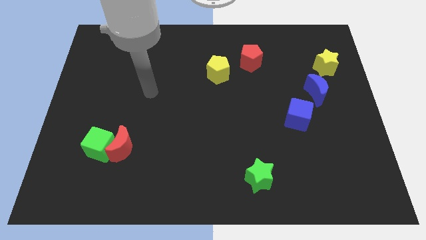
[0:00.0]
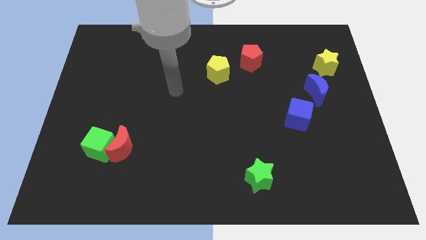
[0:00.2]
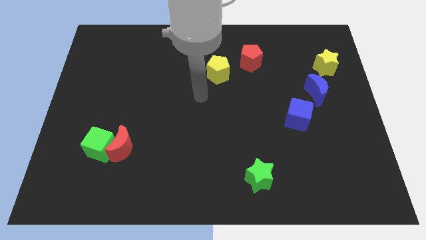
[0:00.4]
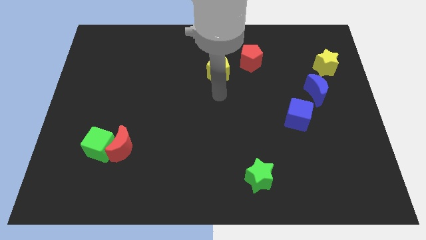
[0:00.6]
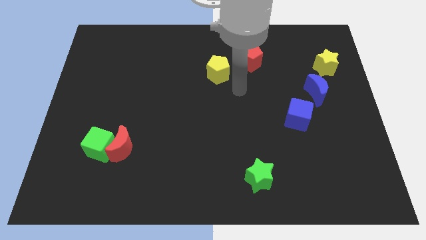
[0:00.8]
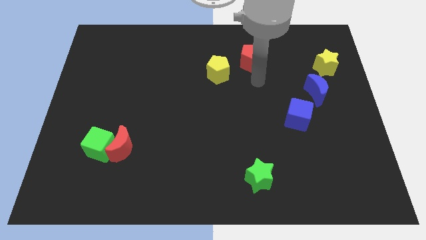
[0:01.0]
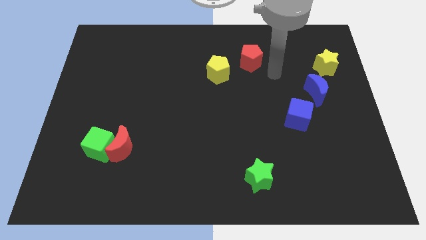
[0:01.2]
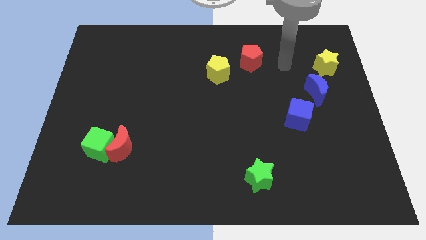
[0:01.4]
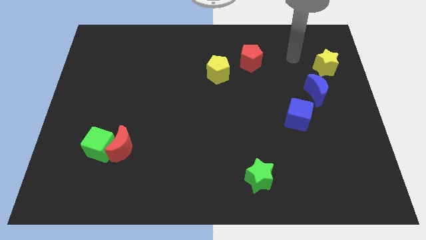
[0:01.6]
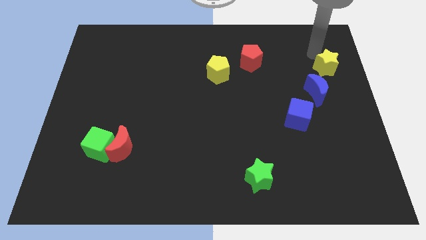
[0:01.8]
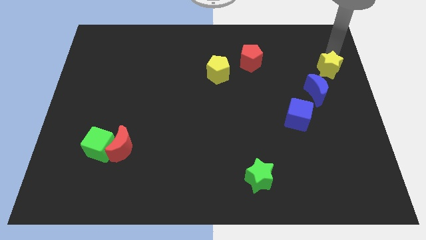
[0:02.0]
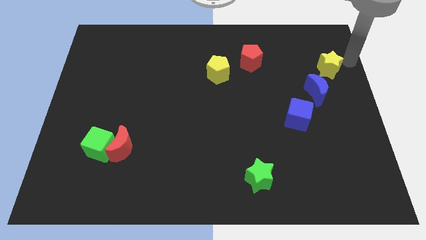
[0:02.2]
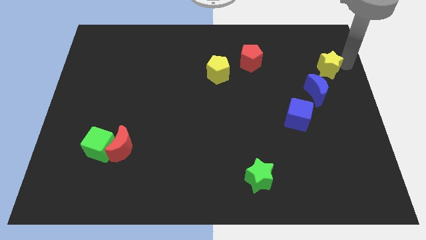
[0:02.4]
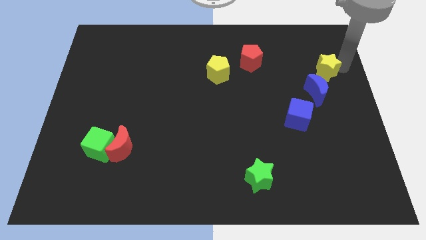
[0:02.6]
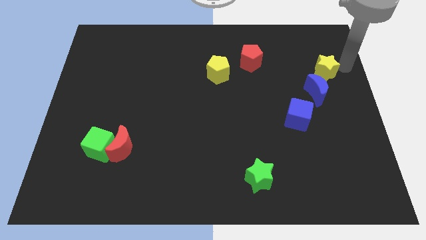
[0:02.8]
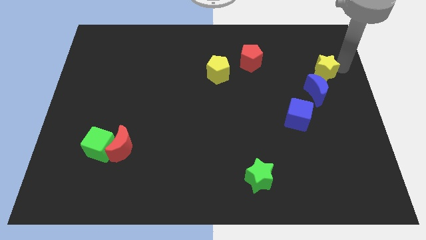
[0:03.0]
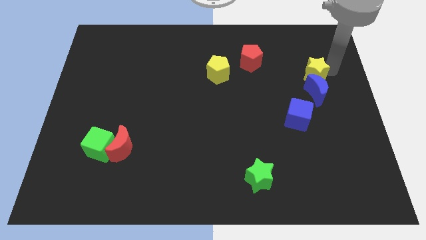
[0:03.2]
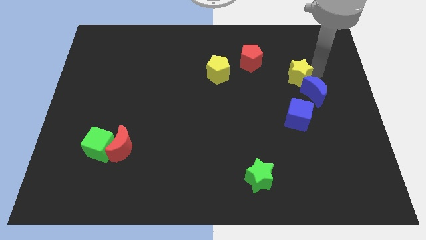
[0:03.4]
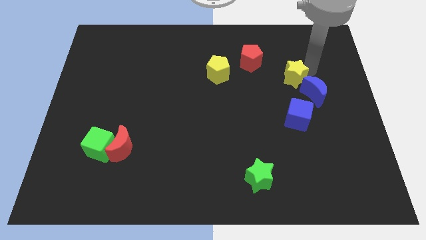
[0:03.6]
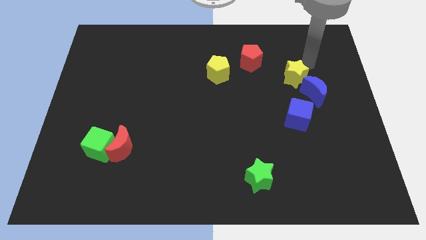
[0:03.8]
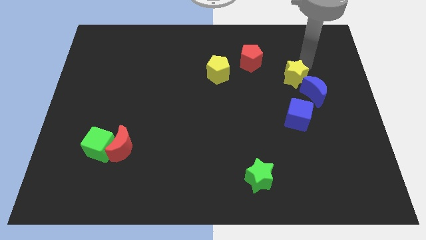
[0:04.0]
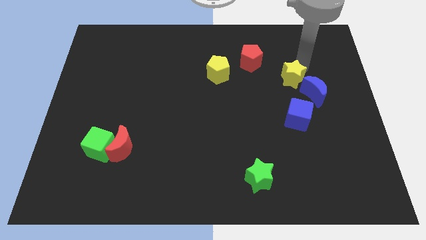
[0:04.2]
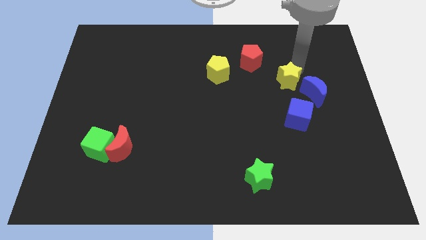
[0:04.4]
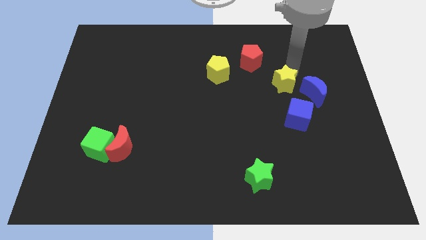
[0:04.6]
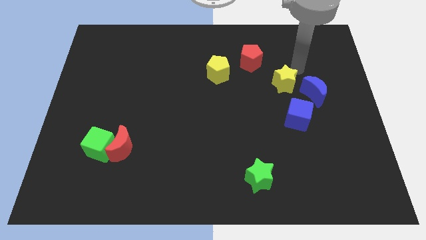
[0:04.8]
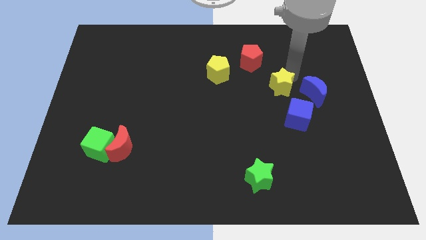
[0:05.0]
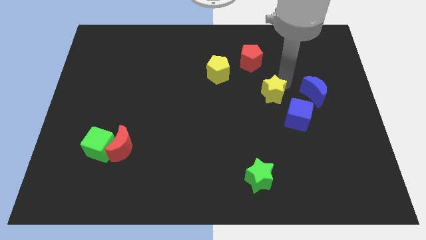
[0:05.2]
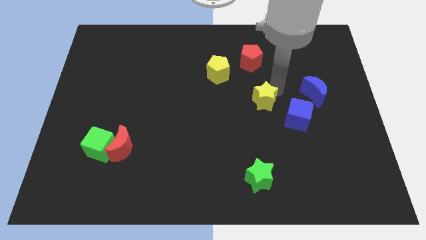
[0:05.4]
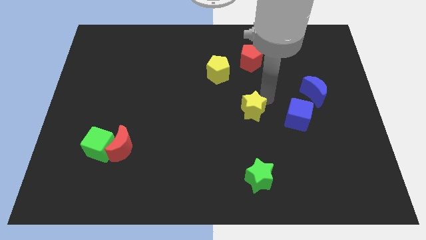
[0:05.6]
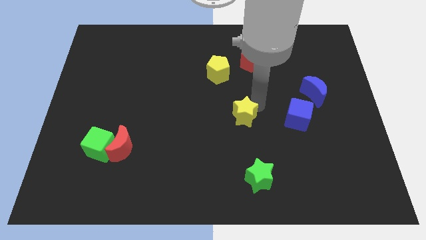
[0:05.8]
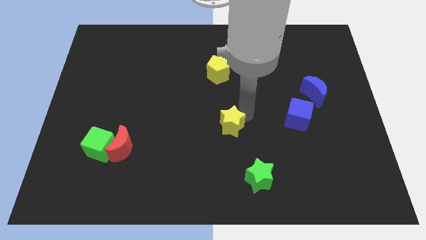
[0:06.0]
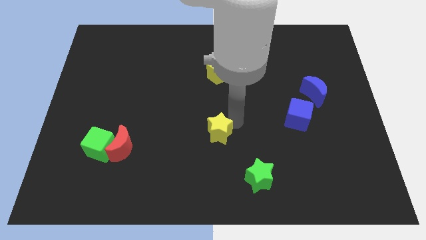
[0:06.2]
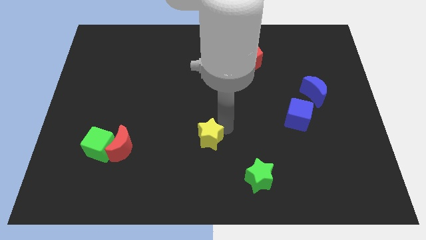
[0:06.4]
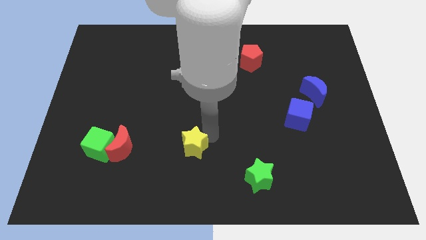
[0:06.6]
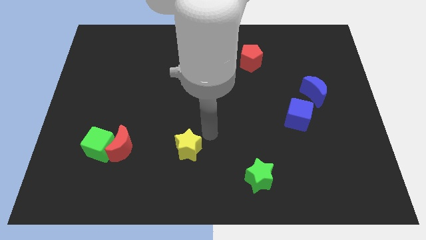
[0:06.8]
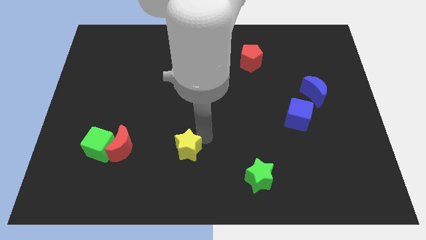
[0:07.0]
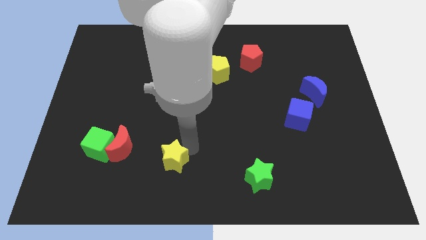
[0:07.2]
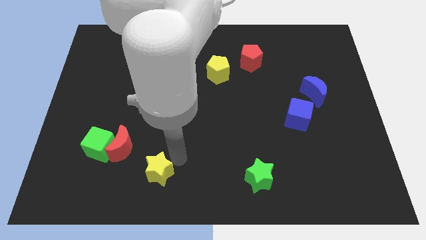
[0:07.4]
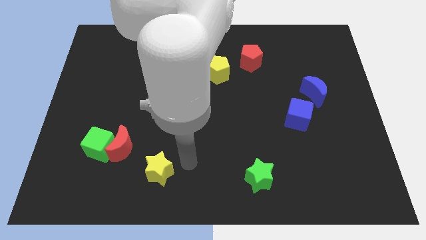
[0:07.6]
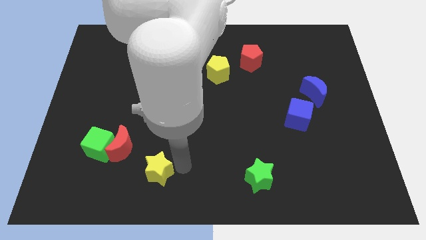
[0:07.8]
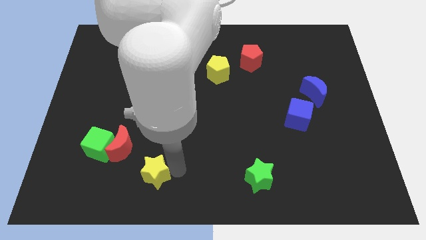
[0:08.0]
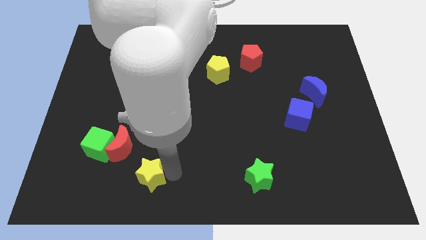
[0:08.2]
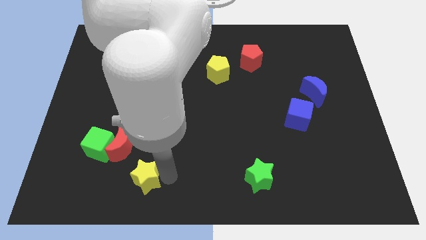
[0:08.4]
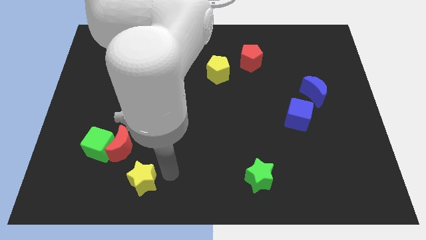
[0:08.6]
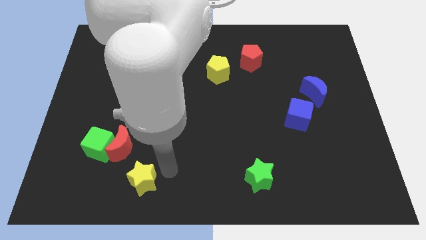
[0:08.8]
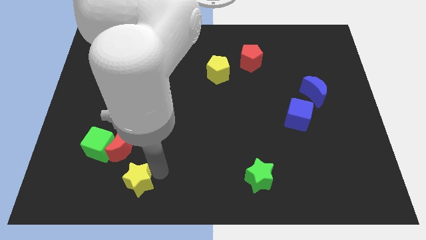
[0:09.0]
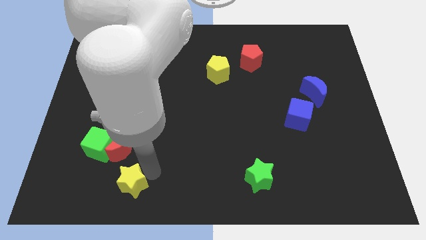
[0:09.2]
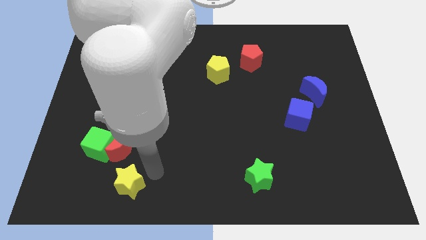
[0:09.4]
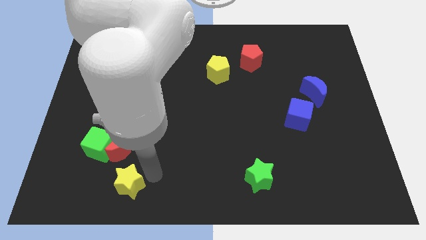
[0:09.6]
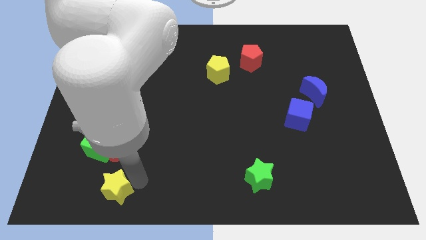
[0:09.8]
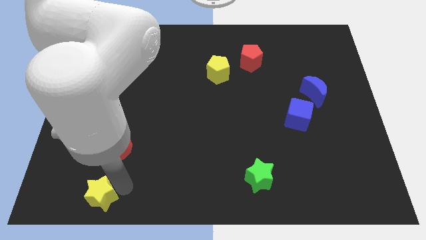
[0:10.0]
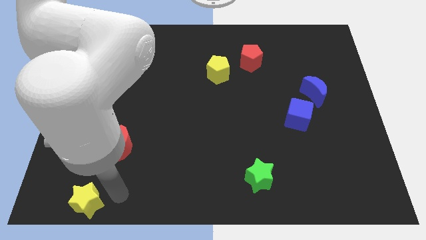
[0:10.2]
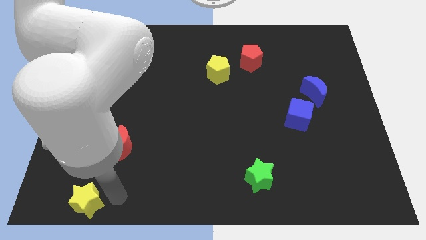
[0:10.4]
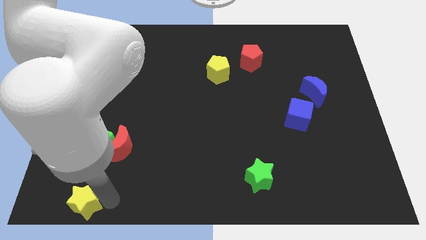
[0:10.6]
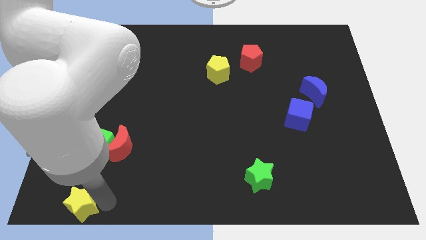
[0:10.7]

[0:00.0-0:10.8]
move the yellow star to the lower left corner
